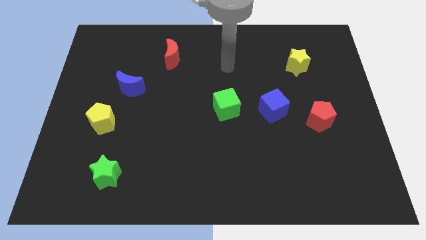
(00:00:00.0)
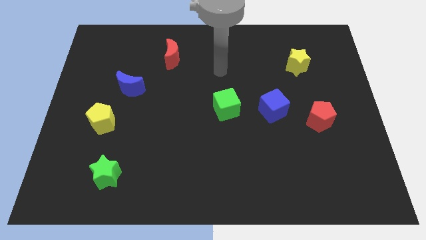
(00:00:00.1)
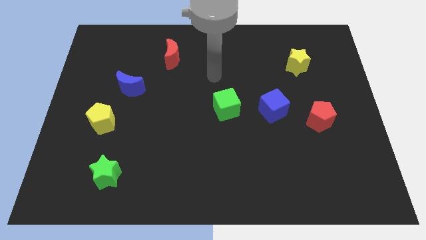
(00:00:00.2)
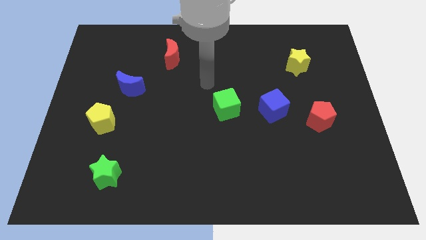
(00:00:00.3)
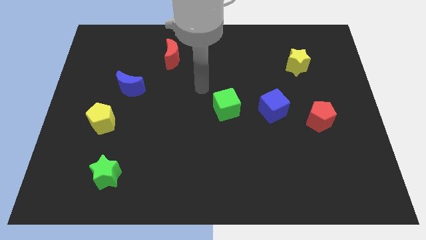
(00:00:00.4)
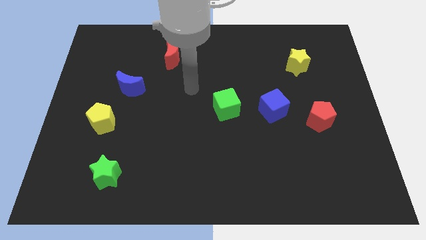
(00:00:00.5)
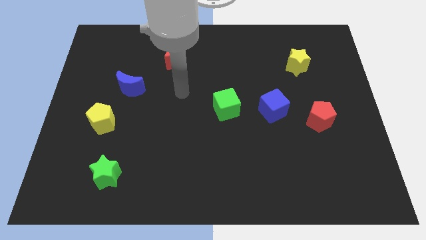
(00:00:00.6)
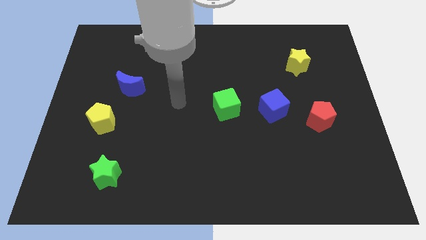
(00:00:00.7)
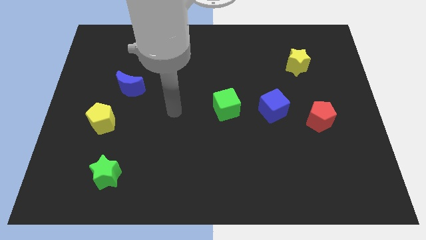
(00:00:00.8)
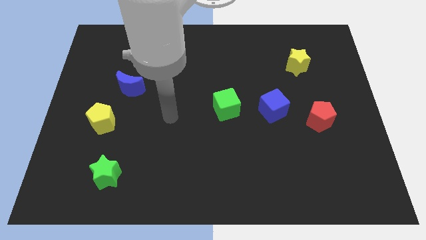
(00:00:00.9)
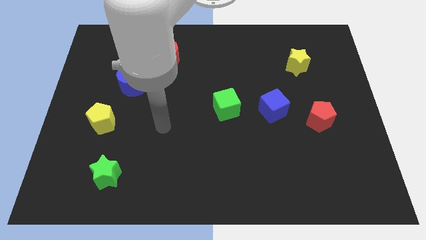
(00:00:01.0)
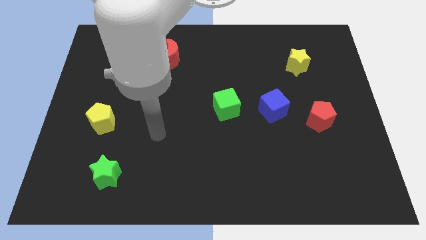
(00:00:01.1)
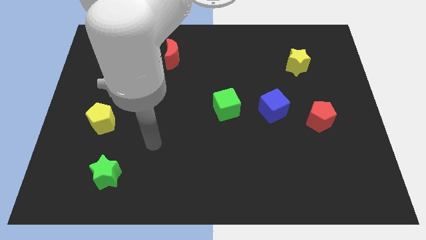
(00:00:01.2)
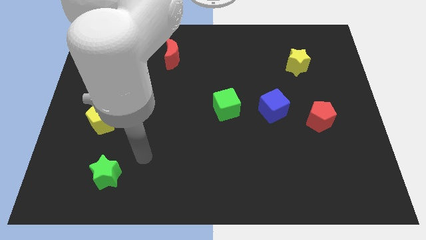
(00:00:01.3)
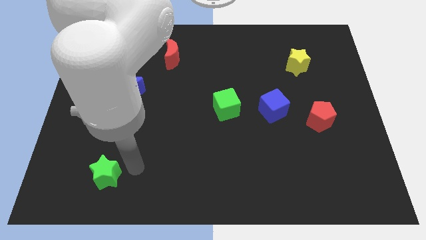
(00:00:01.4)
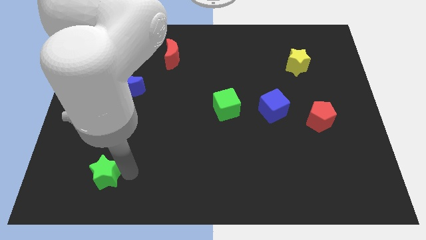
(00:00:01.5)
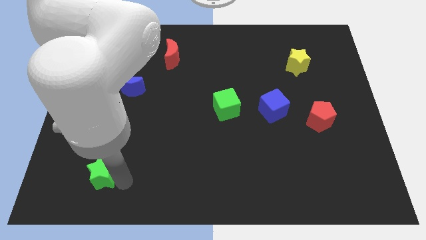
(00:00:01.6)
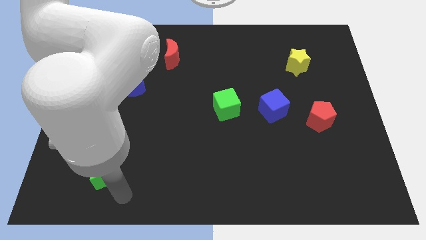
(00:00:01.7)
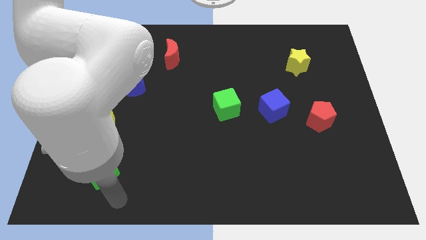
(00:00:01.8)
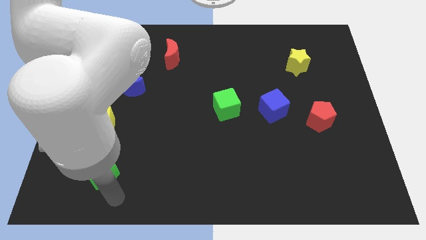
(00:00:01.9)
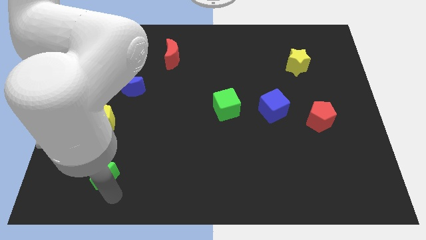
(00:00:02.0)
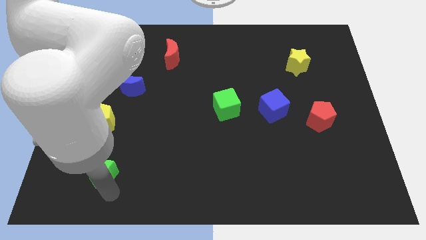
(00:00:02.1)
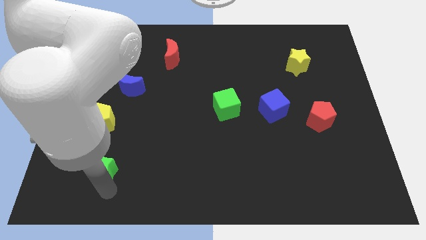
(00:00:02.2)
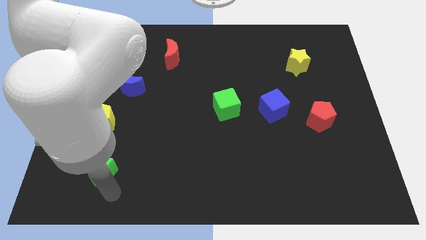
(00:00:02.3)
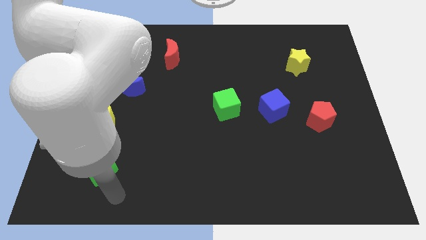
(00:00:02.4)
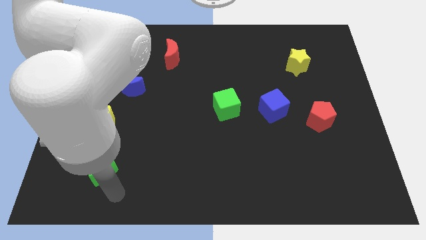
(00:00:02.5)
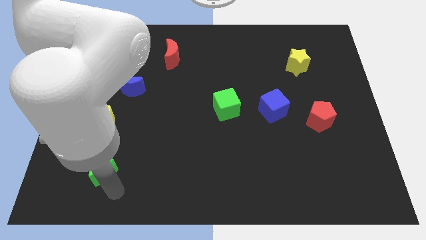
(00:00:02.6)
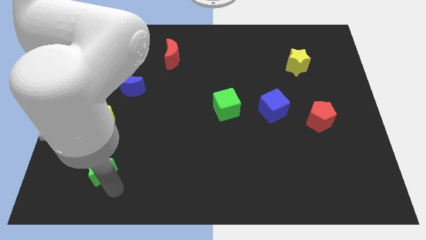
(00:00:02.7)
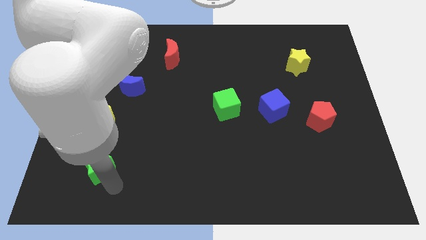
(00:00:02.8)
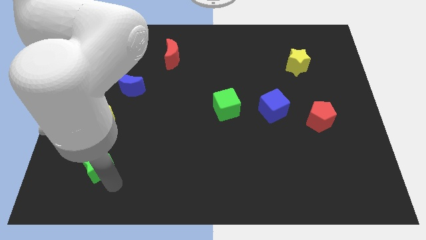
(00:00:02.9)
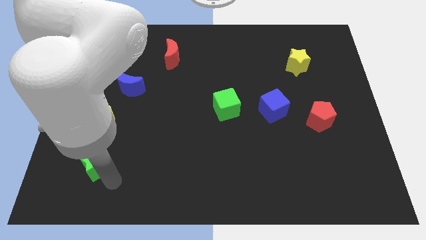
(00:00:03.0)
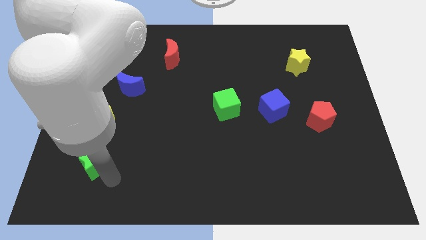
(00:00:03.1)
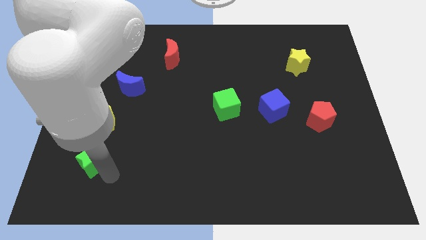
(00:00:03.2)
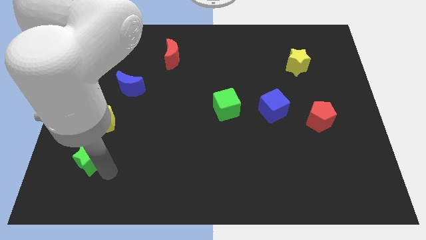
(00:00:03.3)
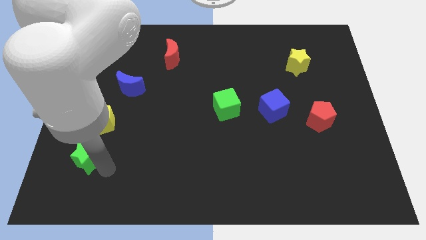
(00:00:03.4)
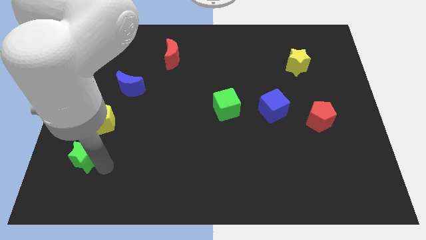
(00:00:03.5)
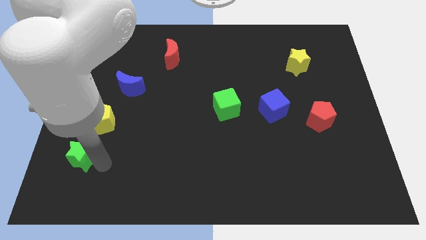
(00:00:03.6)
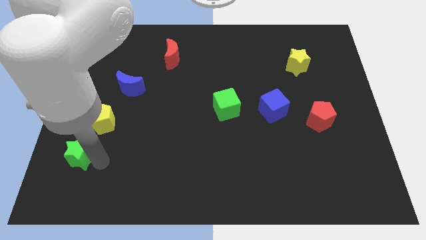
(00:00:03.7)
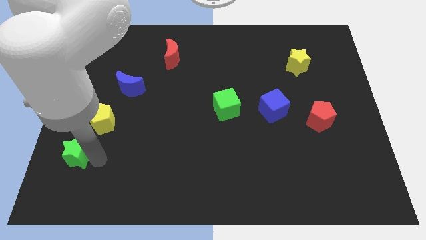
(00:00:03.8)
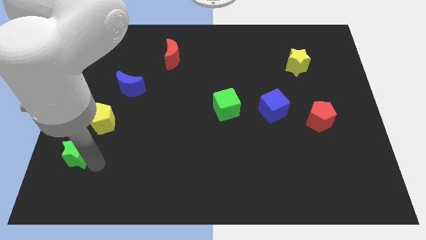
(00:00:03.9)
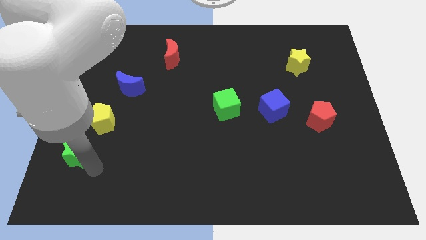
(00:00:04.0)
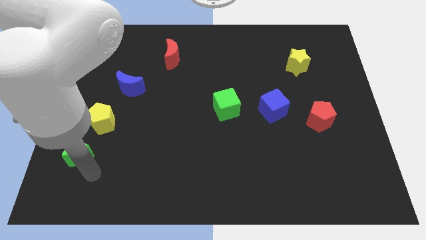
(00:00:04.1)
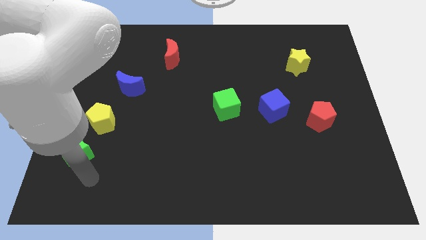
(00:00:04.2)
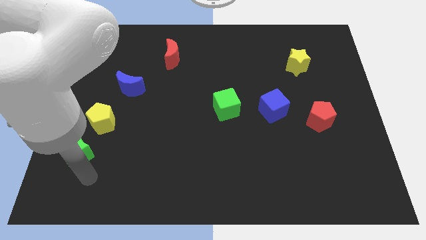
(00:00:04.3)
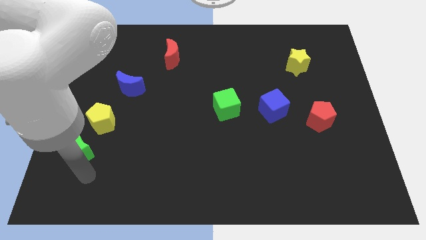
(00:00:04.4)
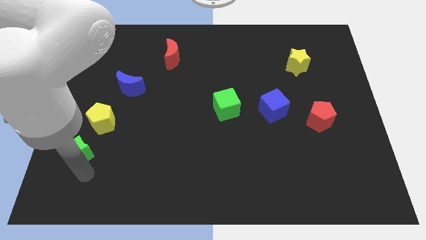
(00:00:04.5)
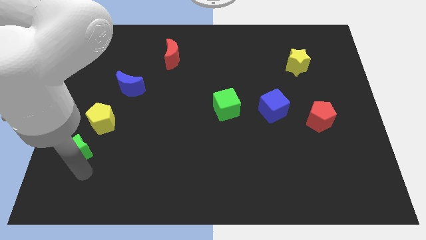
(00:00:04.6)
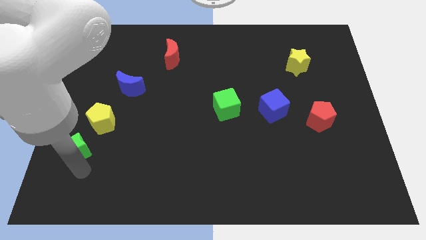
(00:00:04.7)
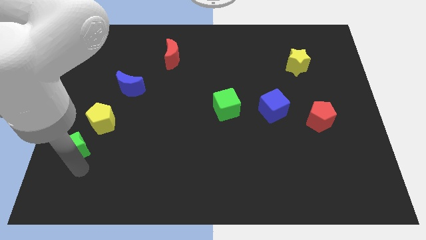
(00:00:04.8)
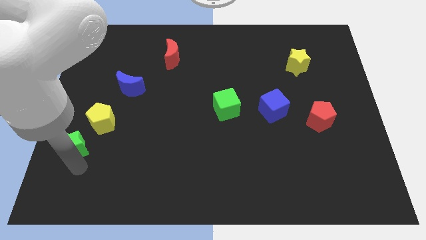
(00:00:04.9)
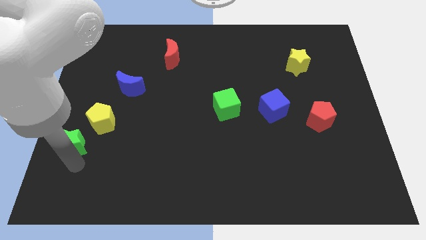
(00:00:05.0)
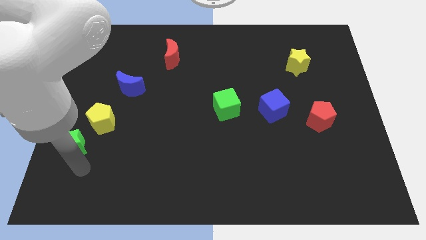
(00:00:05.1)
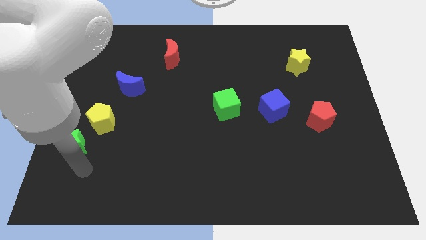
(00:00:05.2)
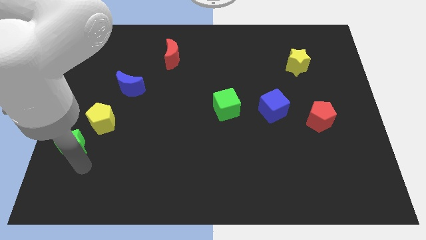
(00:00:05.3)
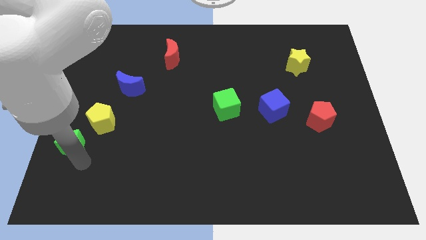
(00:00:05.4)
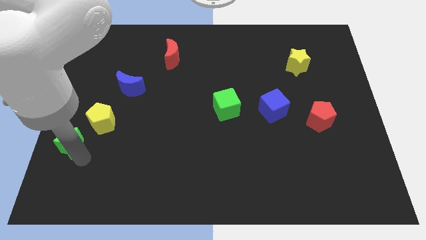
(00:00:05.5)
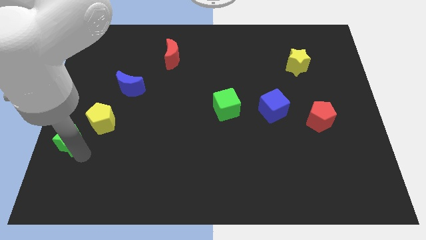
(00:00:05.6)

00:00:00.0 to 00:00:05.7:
slide the green star to the center left

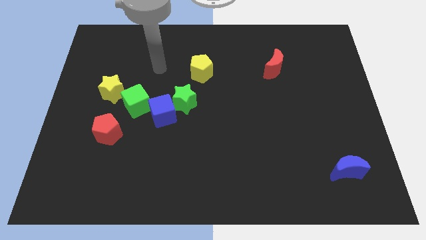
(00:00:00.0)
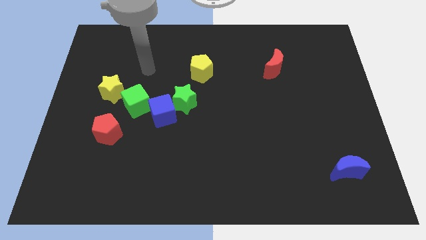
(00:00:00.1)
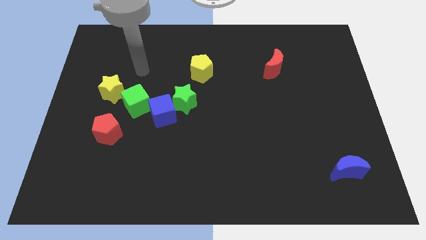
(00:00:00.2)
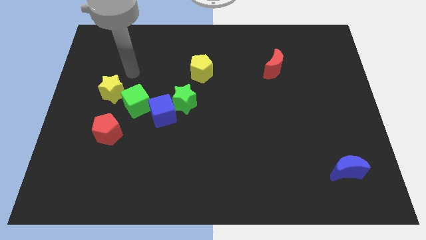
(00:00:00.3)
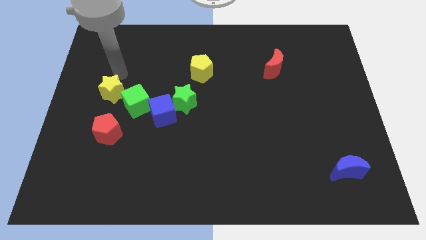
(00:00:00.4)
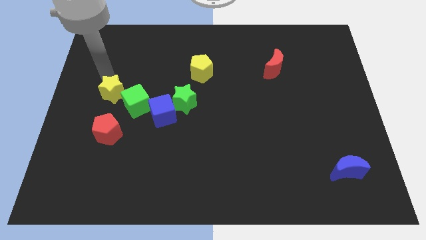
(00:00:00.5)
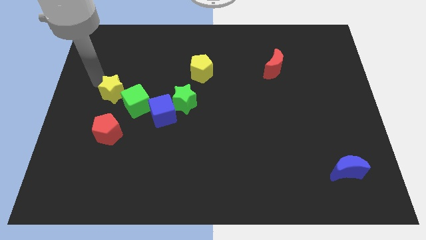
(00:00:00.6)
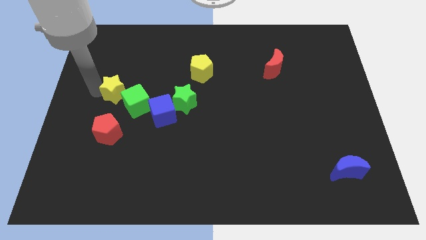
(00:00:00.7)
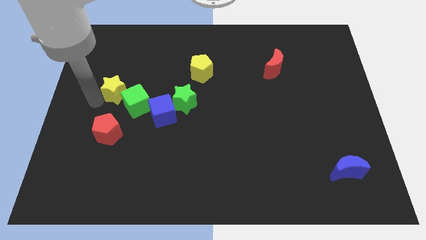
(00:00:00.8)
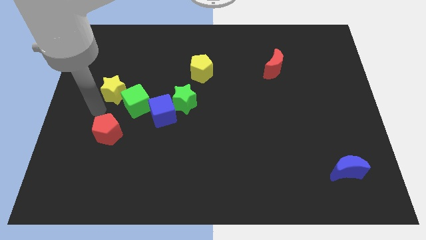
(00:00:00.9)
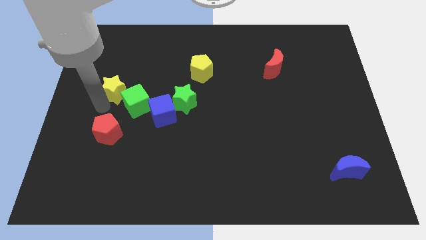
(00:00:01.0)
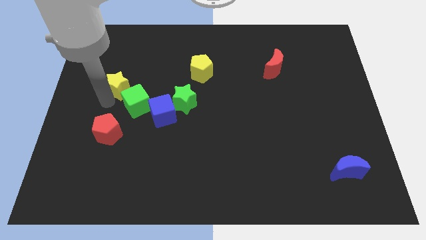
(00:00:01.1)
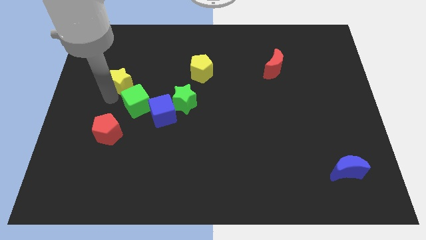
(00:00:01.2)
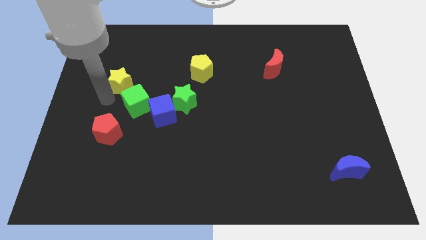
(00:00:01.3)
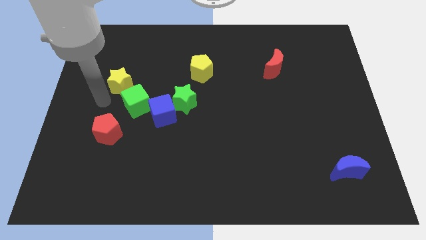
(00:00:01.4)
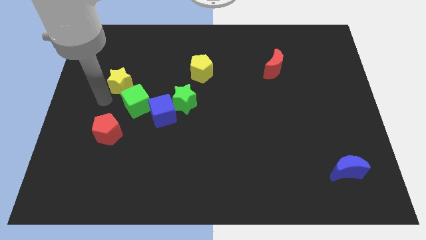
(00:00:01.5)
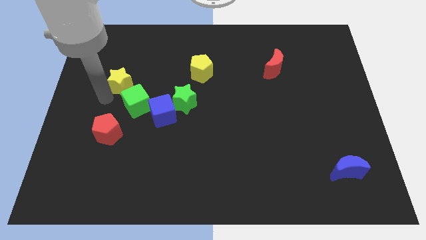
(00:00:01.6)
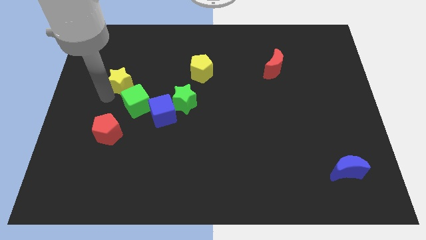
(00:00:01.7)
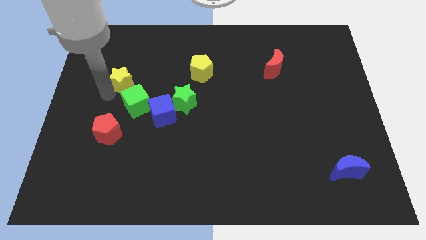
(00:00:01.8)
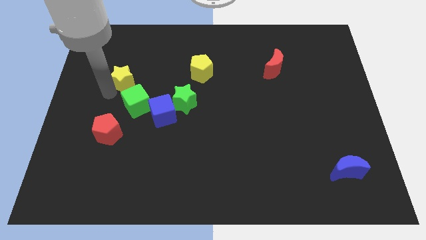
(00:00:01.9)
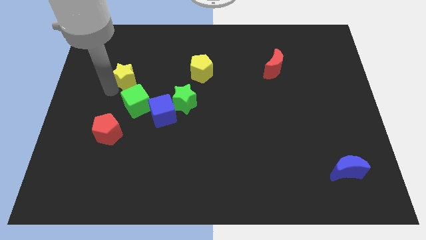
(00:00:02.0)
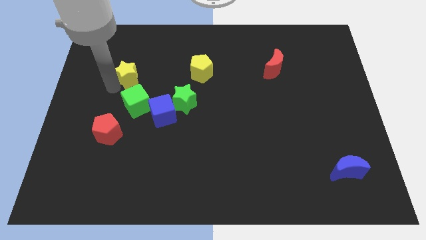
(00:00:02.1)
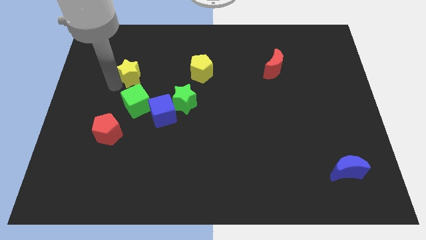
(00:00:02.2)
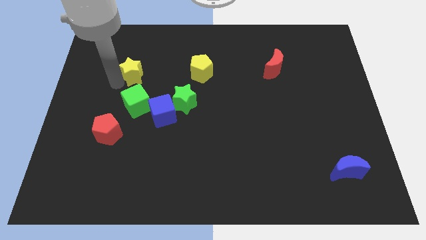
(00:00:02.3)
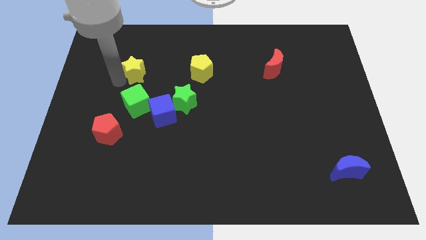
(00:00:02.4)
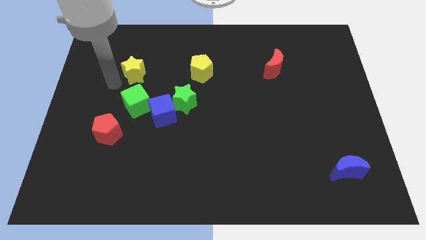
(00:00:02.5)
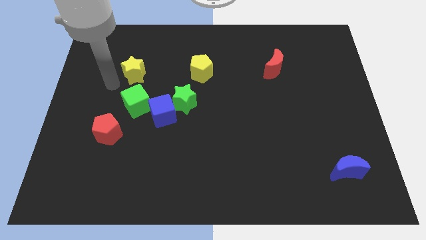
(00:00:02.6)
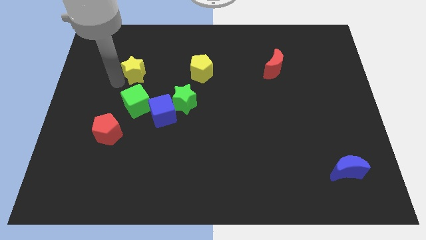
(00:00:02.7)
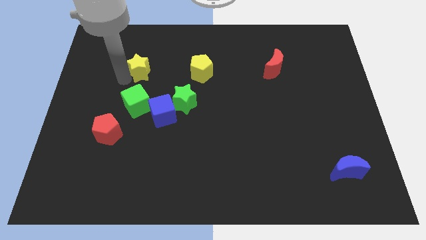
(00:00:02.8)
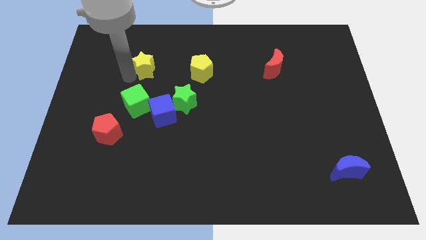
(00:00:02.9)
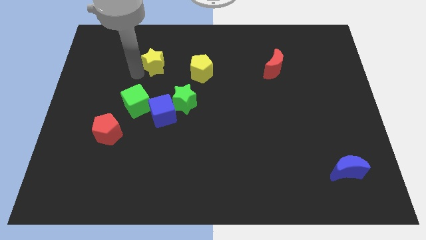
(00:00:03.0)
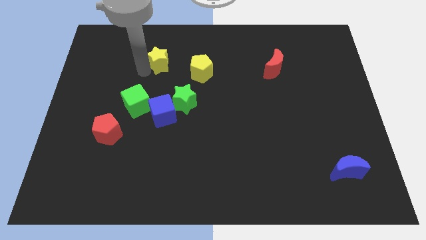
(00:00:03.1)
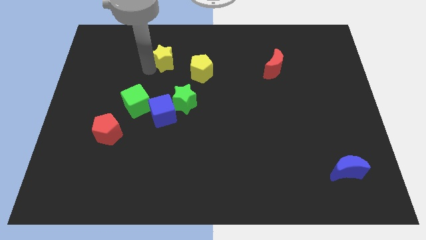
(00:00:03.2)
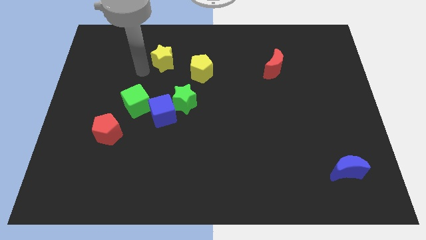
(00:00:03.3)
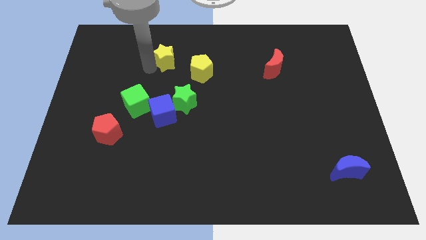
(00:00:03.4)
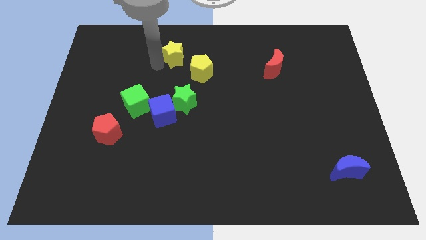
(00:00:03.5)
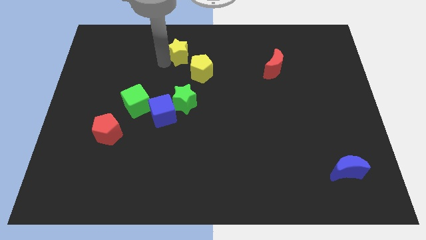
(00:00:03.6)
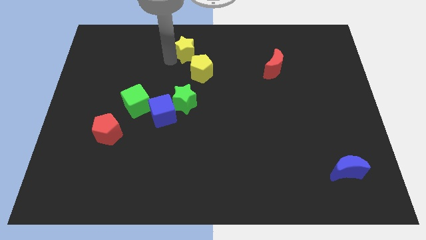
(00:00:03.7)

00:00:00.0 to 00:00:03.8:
put the yellow star to the top
